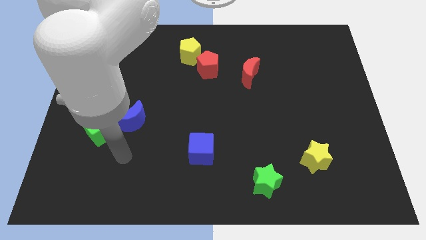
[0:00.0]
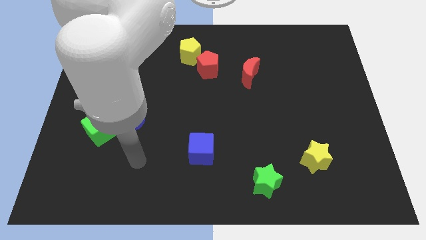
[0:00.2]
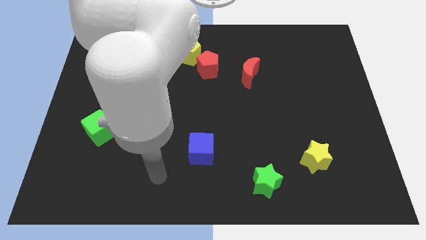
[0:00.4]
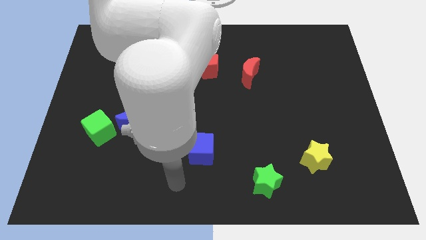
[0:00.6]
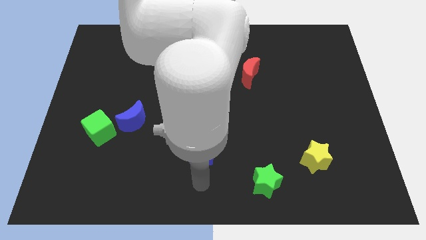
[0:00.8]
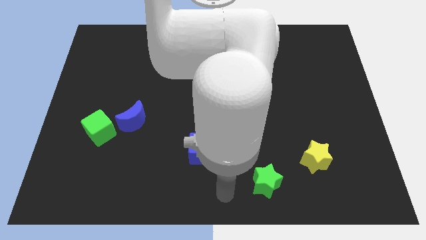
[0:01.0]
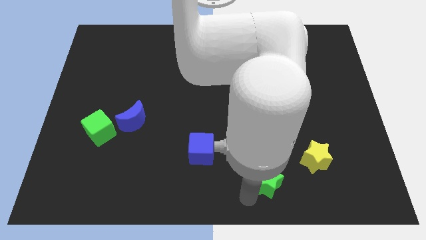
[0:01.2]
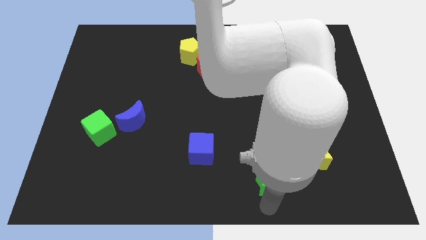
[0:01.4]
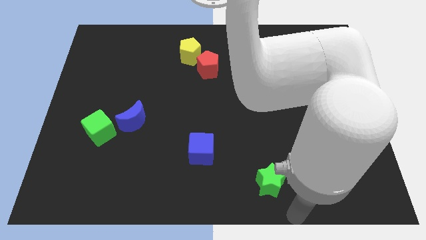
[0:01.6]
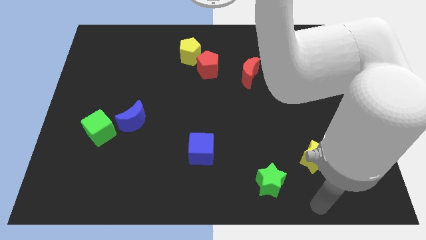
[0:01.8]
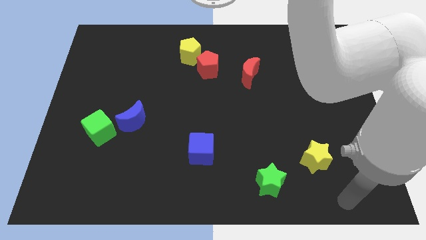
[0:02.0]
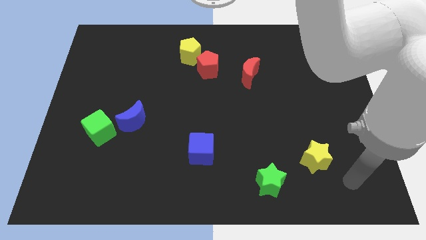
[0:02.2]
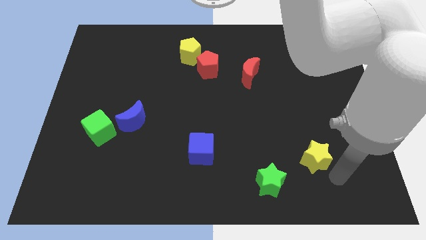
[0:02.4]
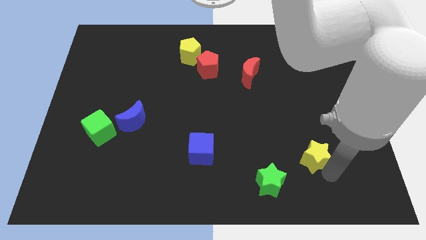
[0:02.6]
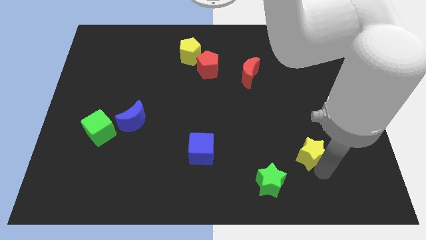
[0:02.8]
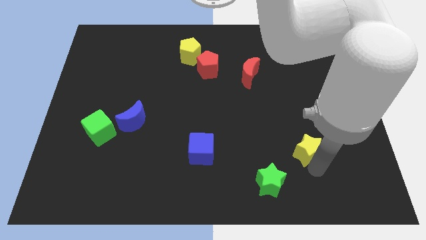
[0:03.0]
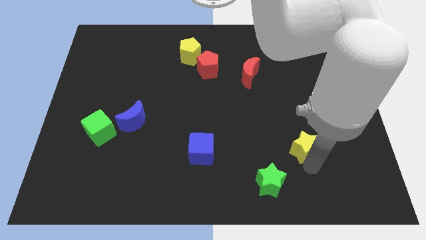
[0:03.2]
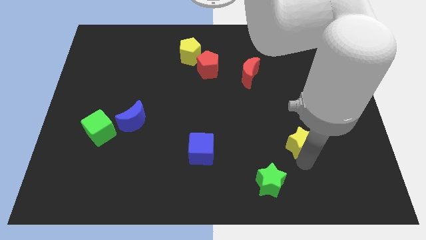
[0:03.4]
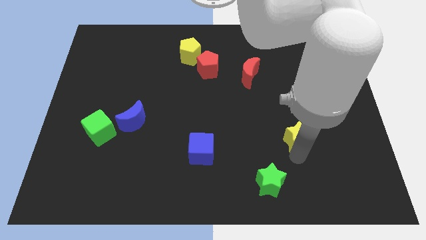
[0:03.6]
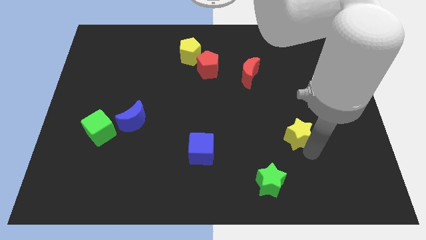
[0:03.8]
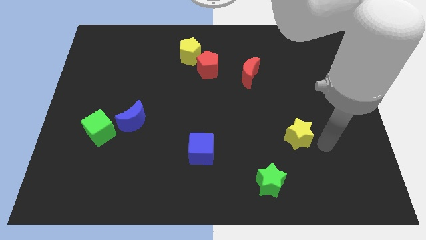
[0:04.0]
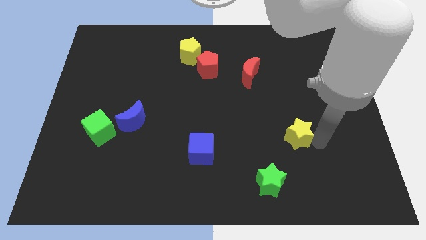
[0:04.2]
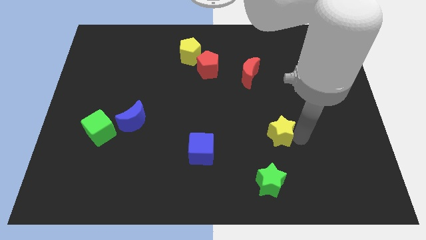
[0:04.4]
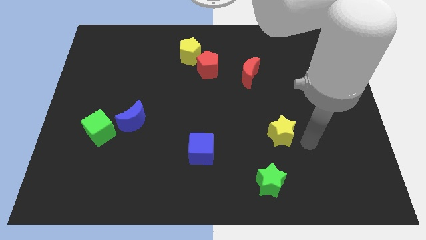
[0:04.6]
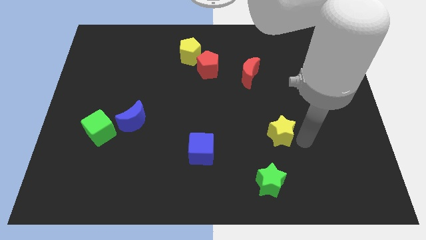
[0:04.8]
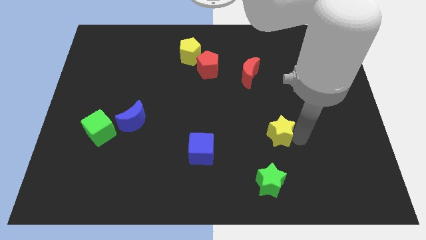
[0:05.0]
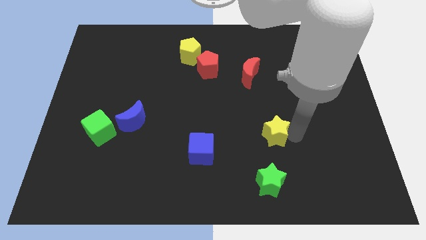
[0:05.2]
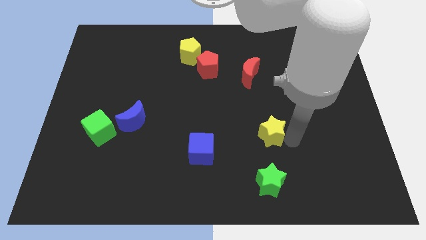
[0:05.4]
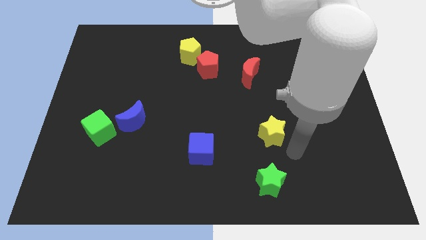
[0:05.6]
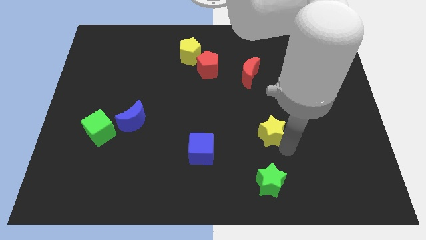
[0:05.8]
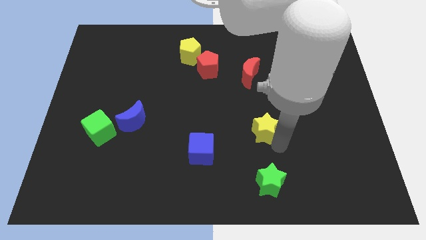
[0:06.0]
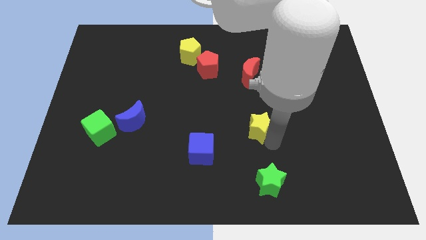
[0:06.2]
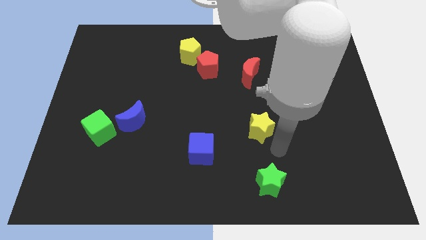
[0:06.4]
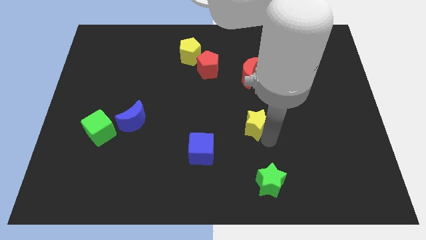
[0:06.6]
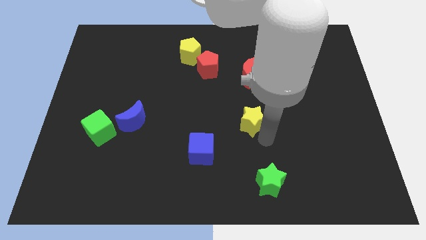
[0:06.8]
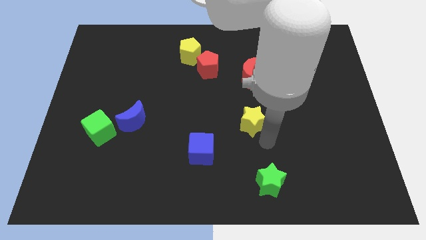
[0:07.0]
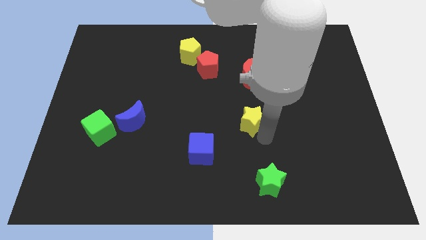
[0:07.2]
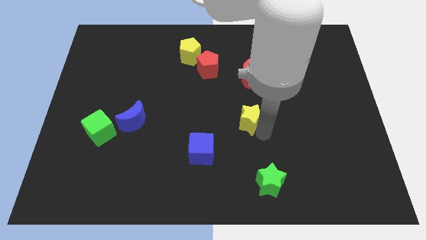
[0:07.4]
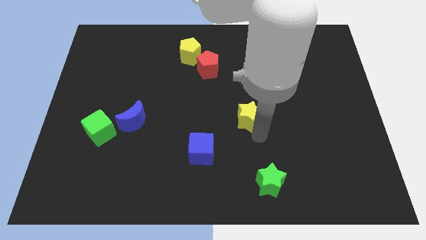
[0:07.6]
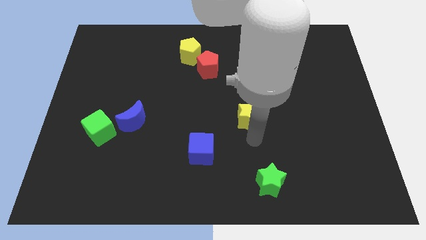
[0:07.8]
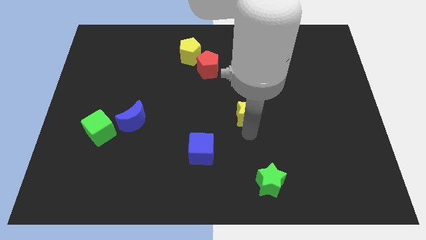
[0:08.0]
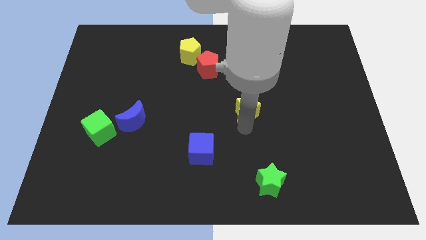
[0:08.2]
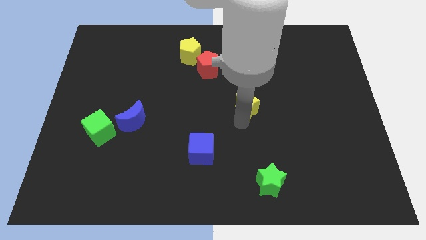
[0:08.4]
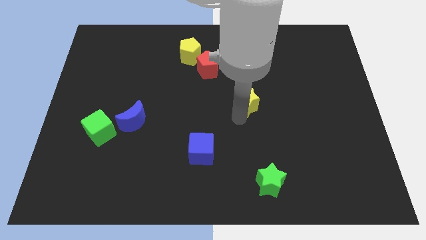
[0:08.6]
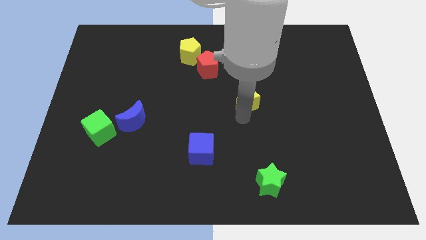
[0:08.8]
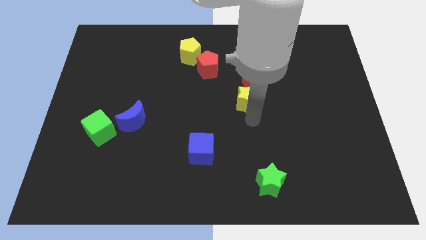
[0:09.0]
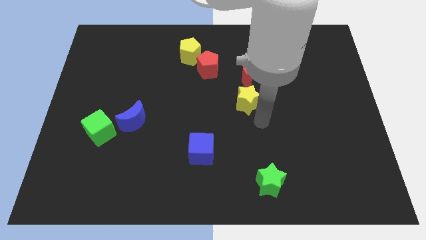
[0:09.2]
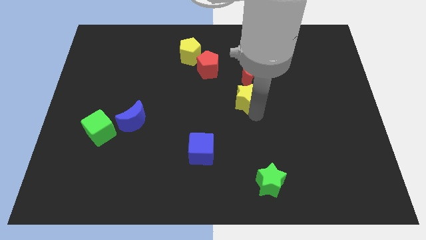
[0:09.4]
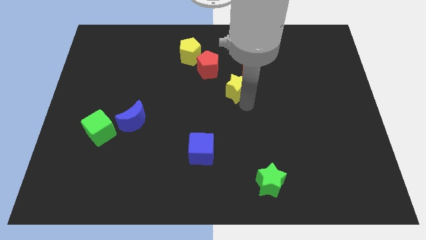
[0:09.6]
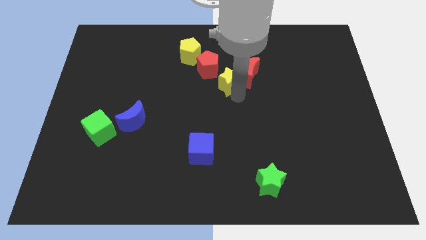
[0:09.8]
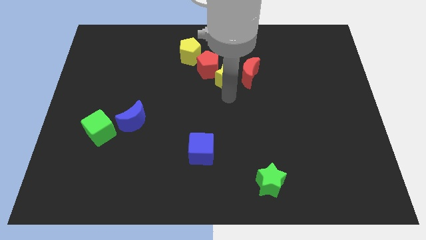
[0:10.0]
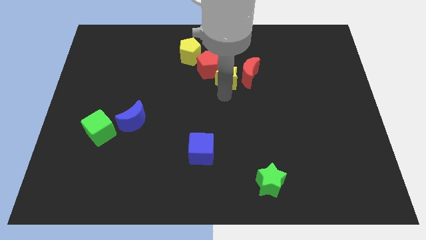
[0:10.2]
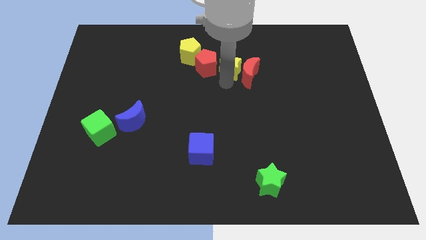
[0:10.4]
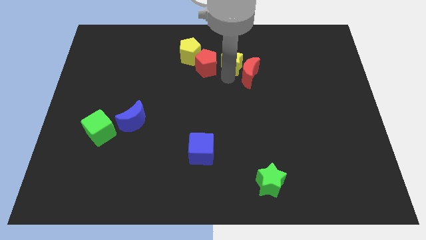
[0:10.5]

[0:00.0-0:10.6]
slide the yellow star just right of the yellow pentagon

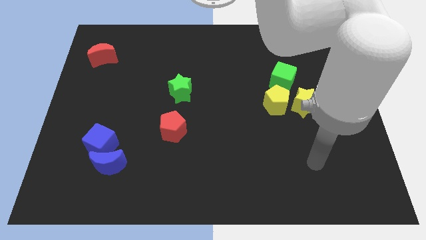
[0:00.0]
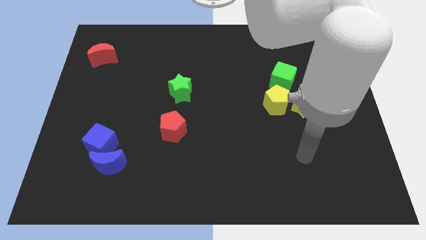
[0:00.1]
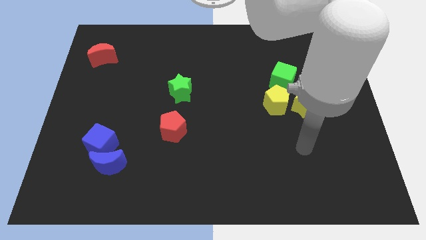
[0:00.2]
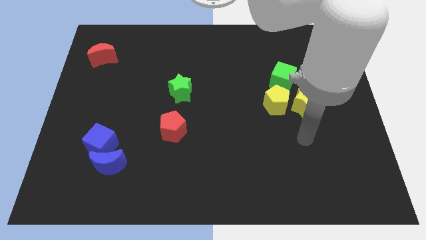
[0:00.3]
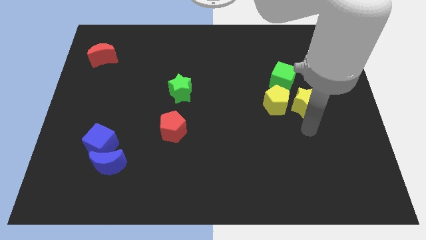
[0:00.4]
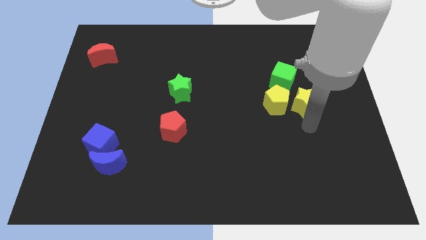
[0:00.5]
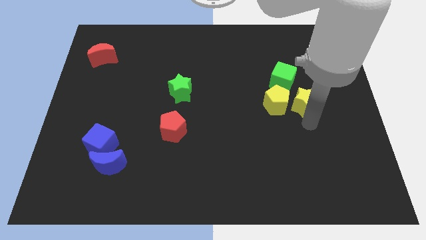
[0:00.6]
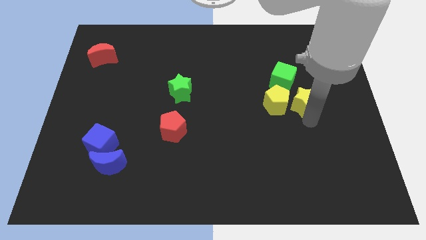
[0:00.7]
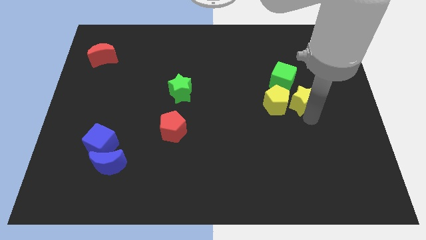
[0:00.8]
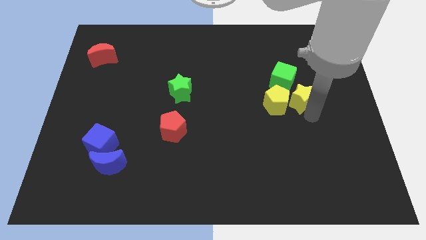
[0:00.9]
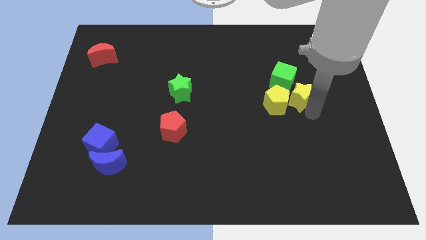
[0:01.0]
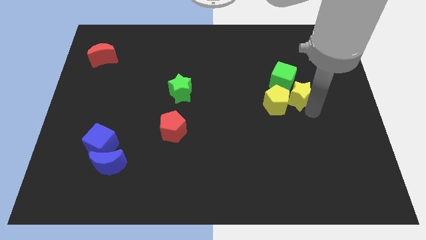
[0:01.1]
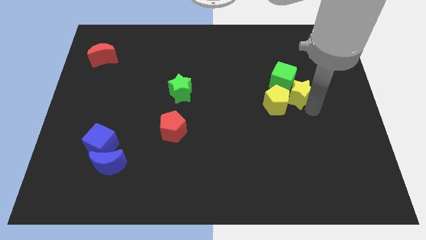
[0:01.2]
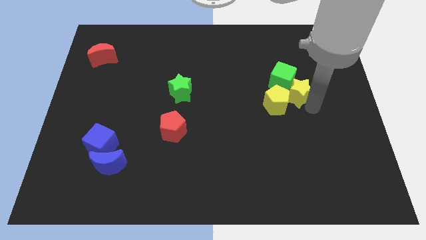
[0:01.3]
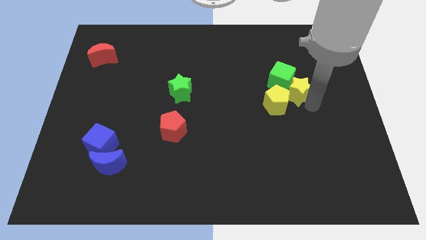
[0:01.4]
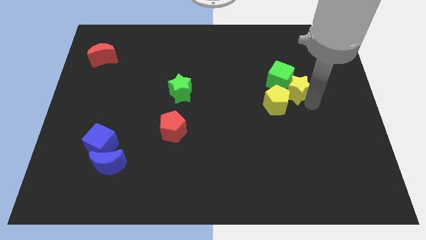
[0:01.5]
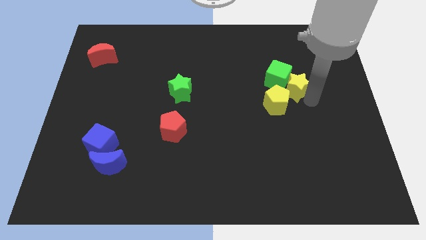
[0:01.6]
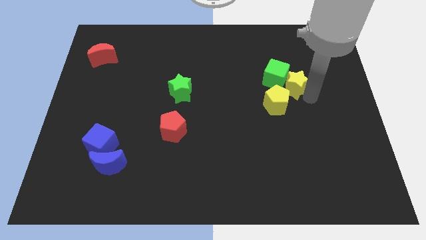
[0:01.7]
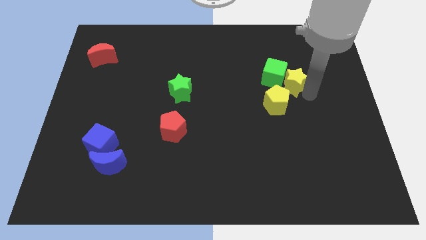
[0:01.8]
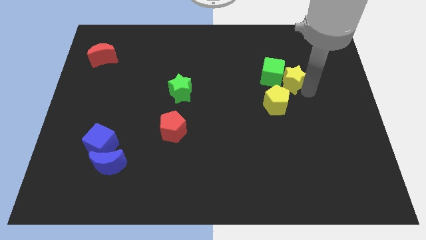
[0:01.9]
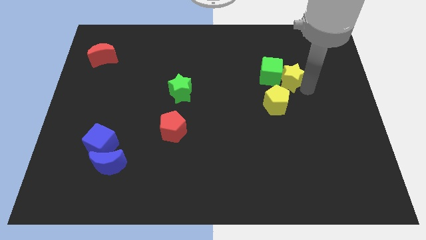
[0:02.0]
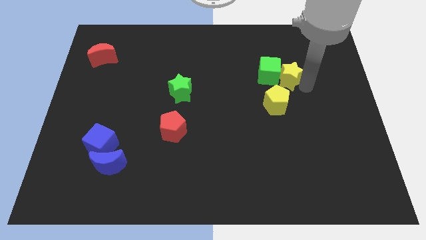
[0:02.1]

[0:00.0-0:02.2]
slide the yellow star to the top right side of the green cube

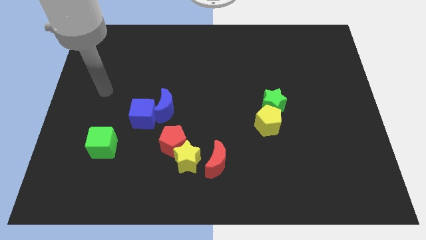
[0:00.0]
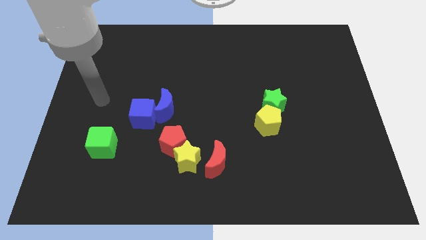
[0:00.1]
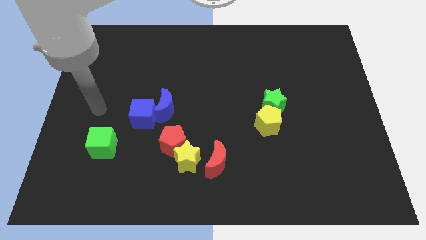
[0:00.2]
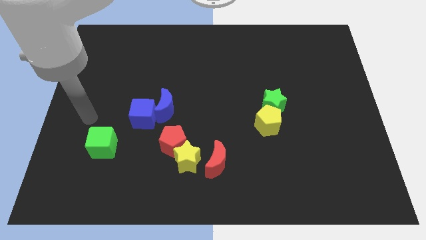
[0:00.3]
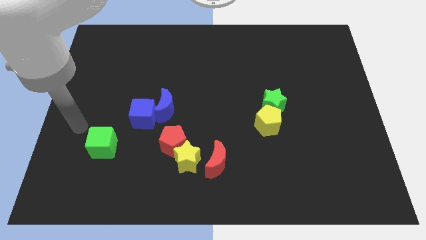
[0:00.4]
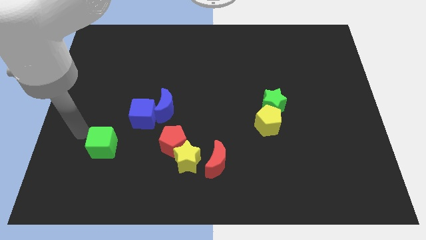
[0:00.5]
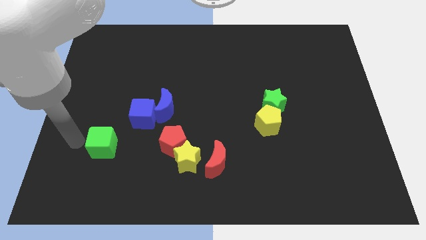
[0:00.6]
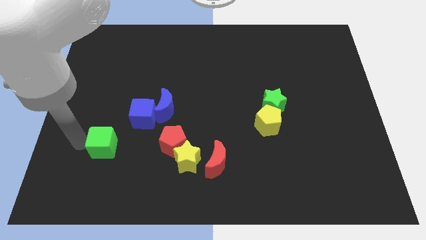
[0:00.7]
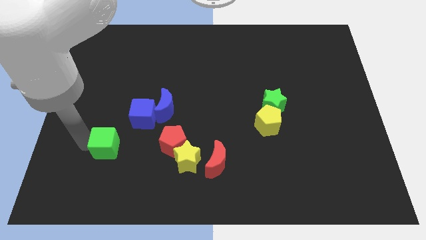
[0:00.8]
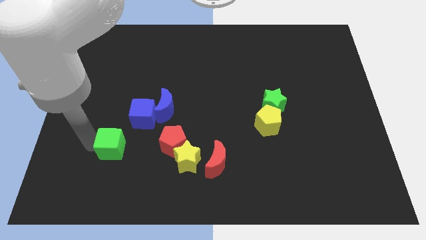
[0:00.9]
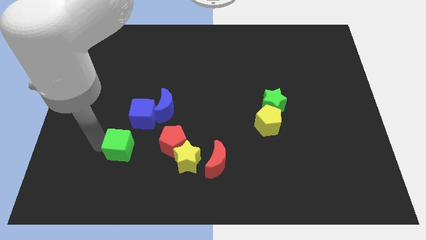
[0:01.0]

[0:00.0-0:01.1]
push the green cube to the left of the yellow star
